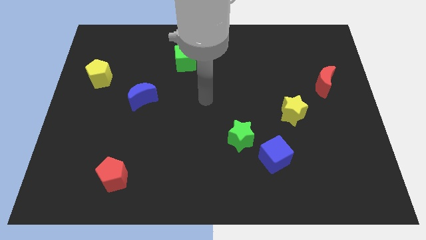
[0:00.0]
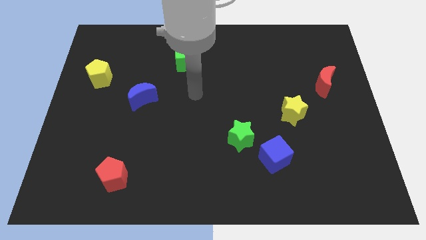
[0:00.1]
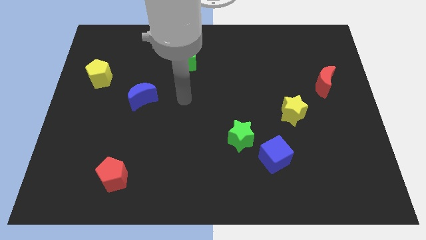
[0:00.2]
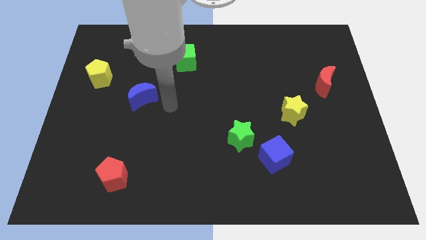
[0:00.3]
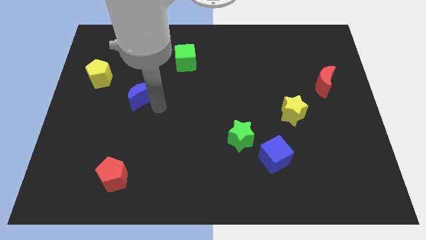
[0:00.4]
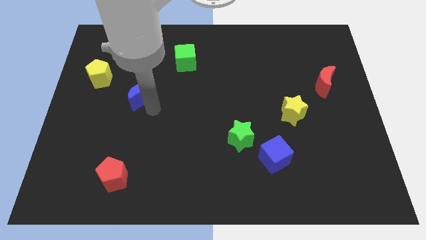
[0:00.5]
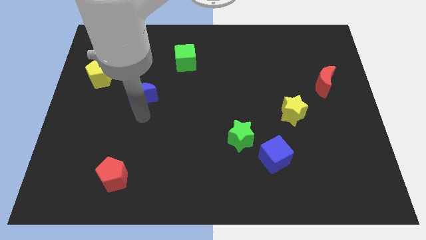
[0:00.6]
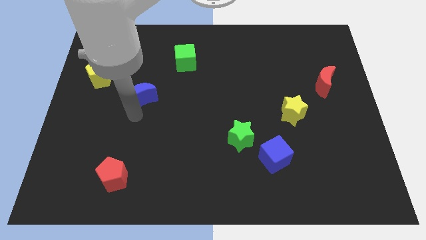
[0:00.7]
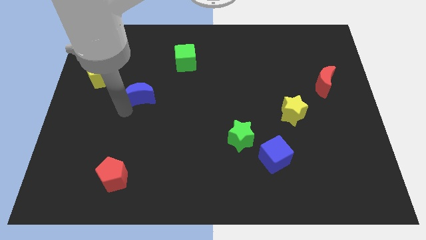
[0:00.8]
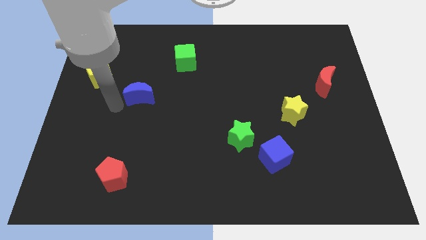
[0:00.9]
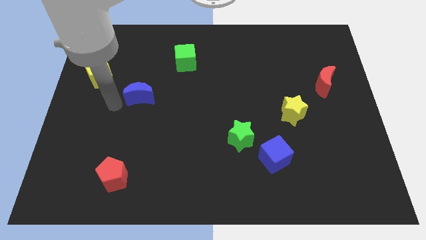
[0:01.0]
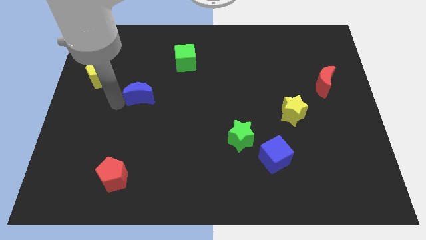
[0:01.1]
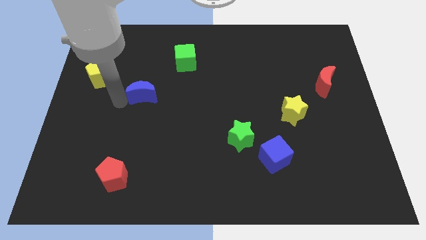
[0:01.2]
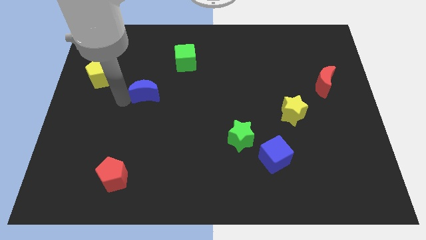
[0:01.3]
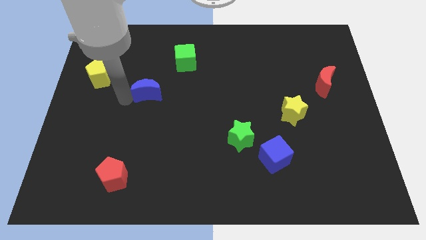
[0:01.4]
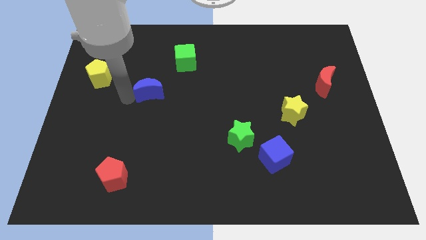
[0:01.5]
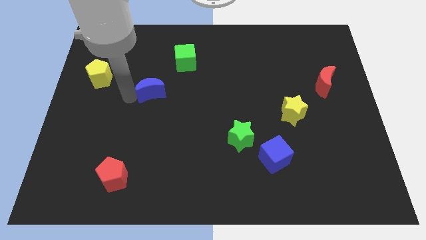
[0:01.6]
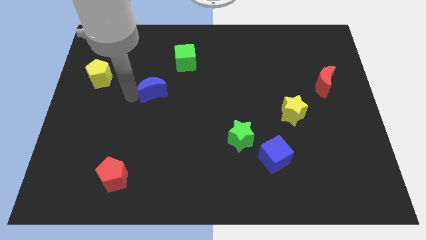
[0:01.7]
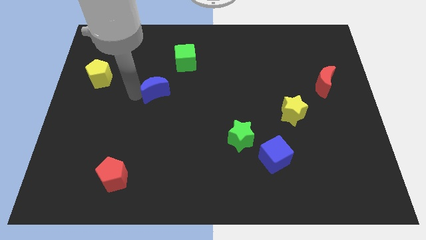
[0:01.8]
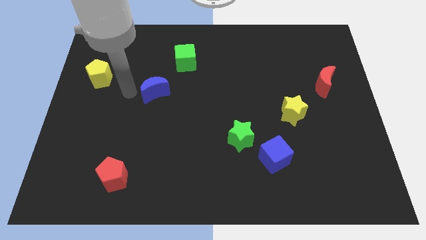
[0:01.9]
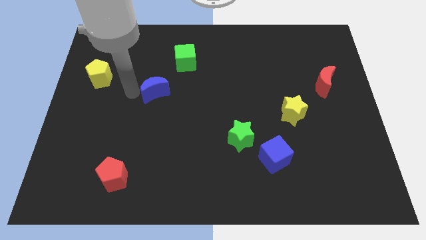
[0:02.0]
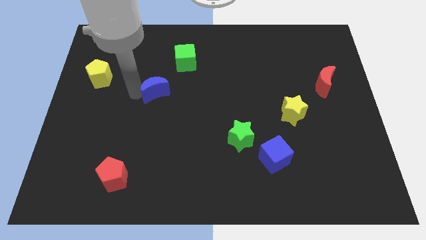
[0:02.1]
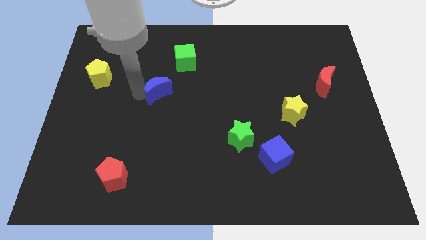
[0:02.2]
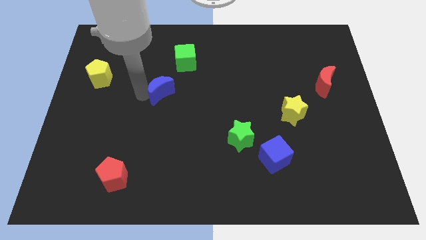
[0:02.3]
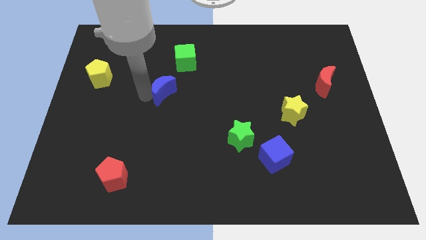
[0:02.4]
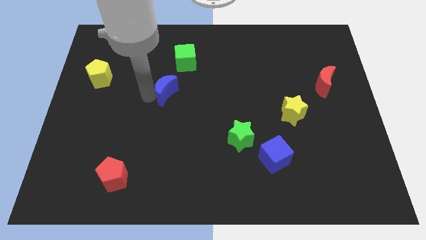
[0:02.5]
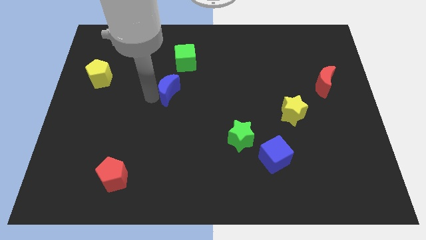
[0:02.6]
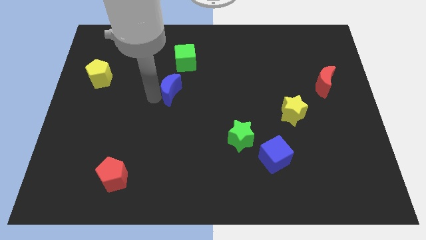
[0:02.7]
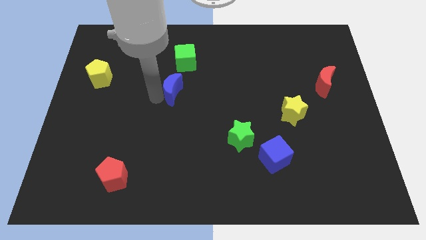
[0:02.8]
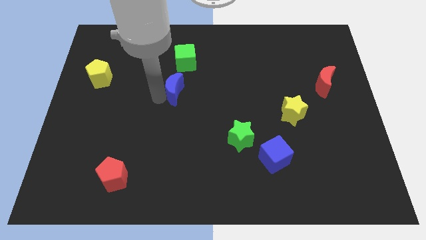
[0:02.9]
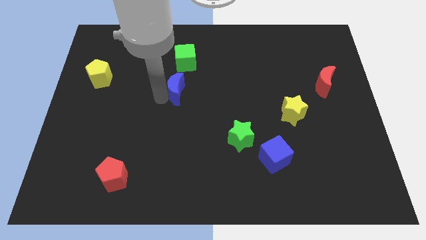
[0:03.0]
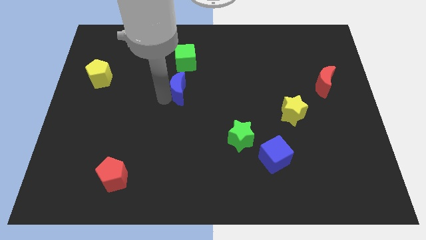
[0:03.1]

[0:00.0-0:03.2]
slightly slide the blue moon diagonally up and to the right

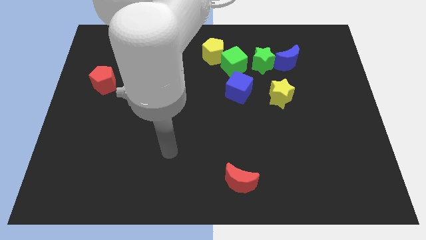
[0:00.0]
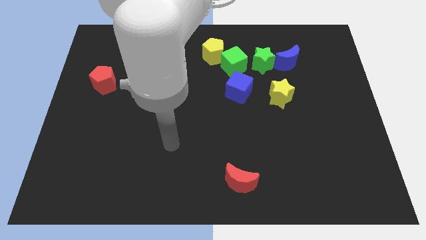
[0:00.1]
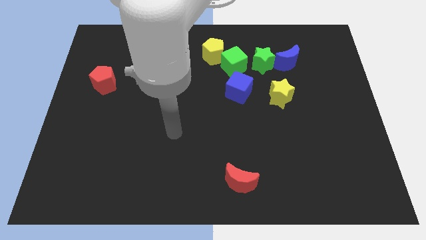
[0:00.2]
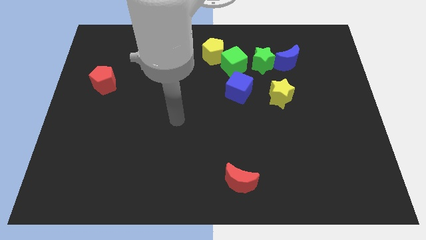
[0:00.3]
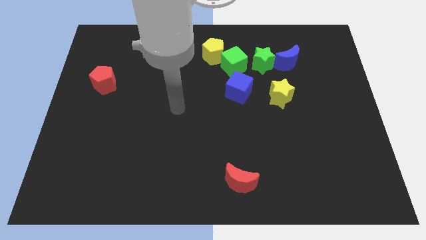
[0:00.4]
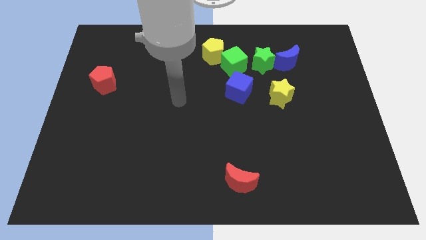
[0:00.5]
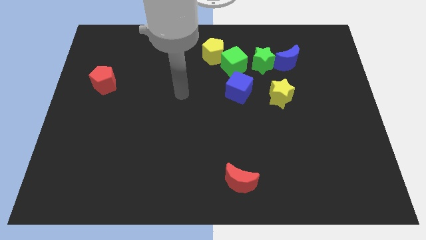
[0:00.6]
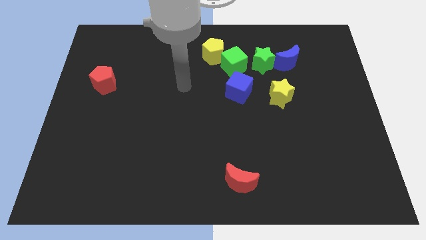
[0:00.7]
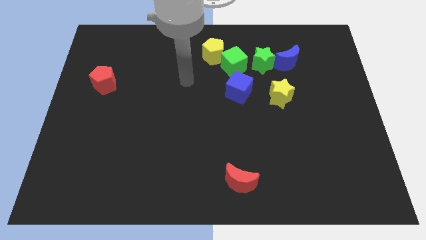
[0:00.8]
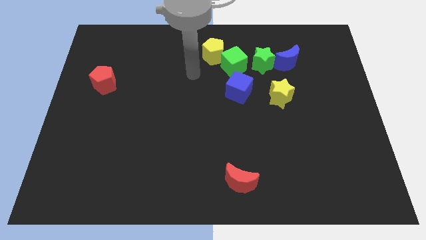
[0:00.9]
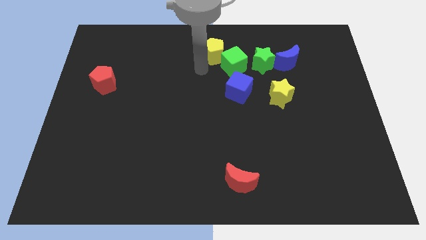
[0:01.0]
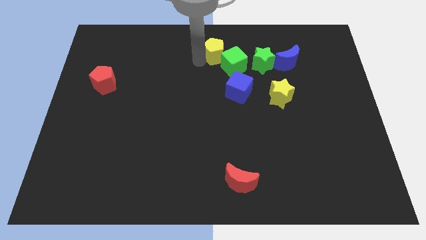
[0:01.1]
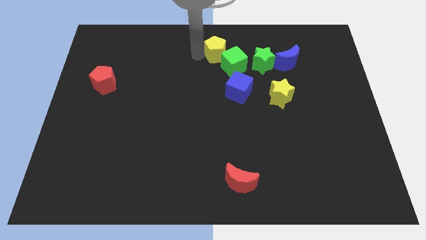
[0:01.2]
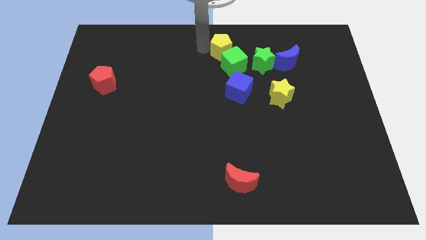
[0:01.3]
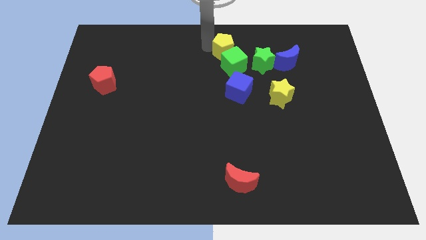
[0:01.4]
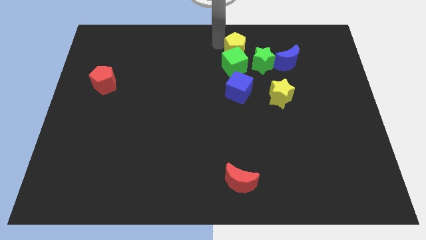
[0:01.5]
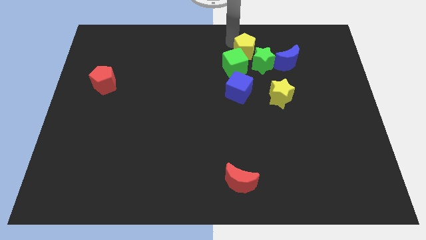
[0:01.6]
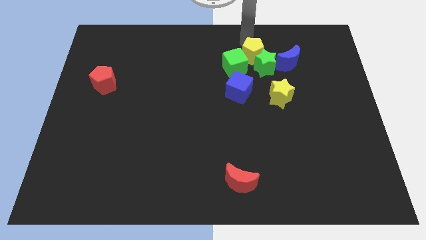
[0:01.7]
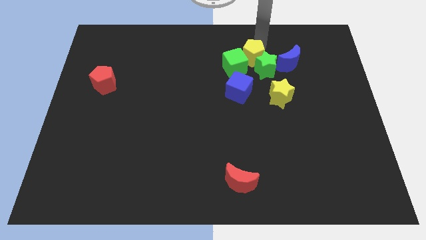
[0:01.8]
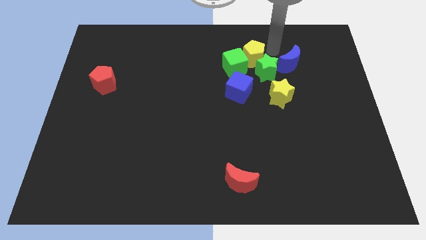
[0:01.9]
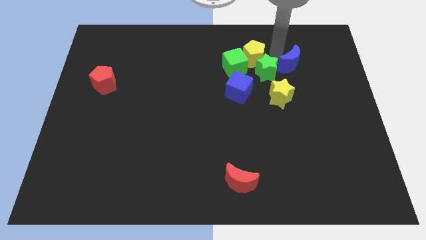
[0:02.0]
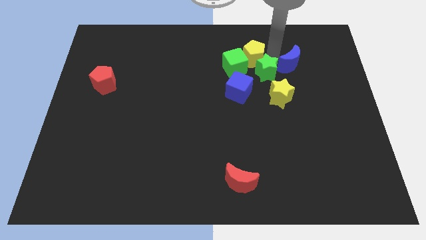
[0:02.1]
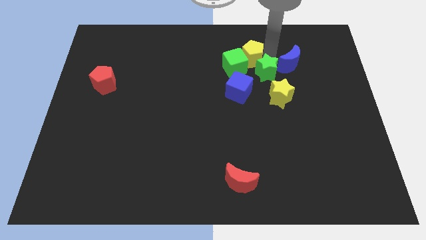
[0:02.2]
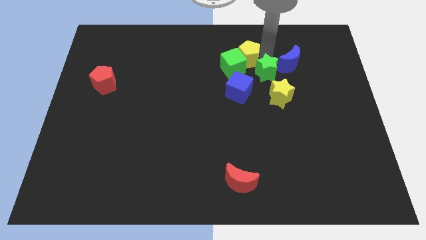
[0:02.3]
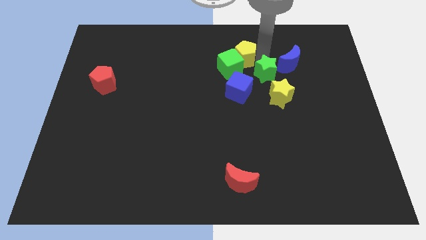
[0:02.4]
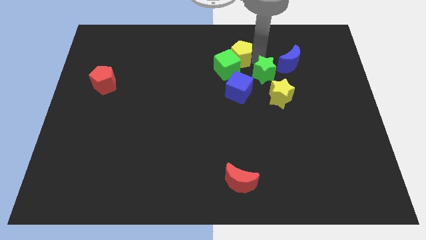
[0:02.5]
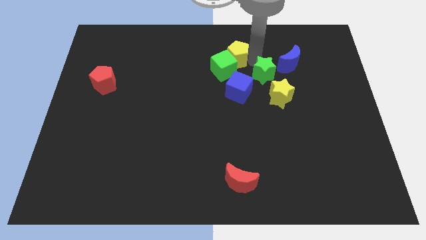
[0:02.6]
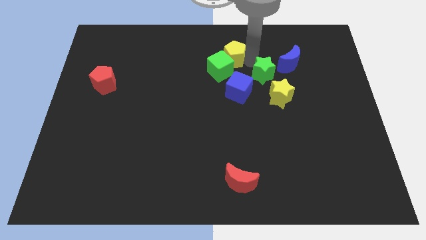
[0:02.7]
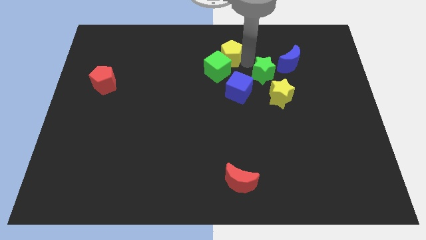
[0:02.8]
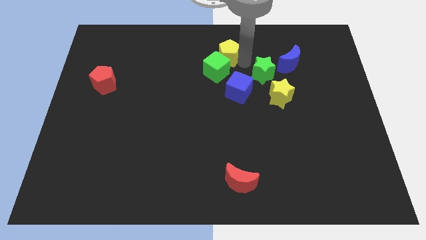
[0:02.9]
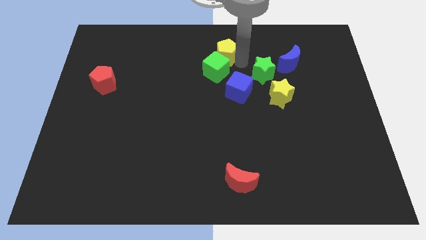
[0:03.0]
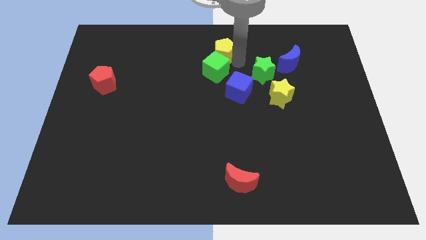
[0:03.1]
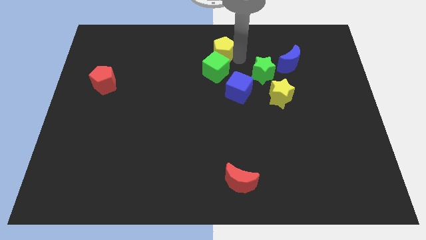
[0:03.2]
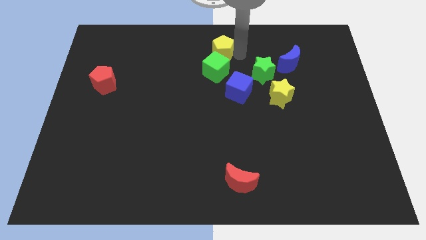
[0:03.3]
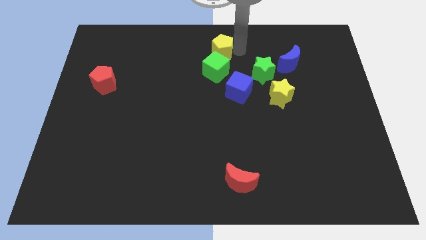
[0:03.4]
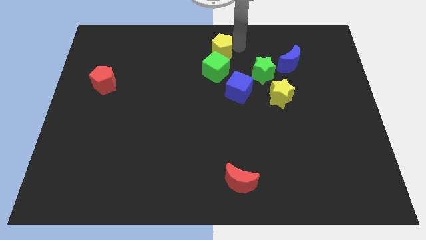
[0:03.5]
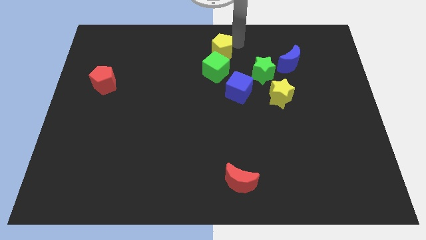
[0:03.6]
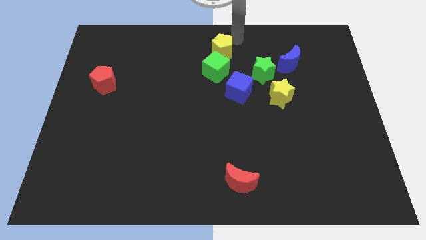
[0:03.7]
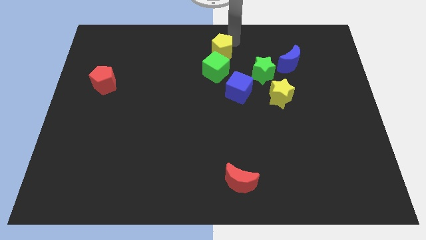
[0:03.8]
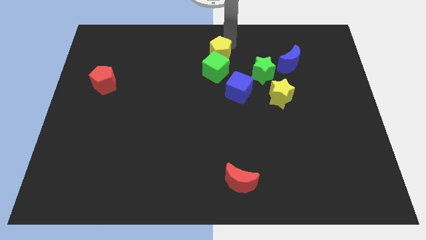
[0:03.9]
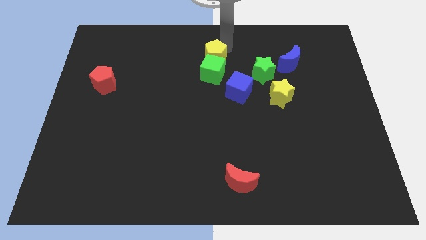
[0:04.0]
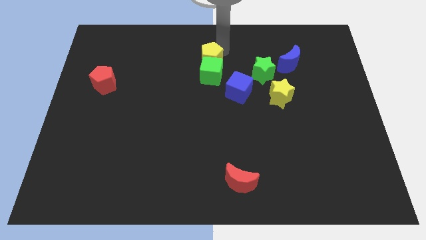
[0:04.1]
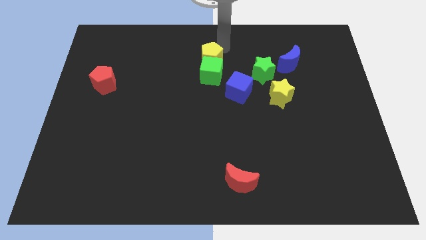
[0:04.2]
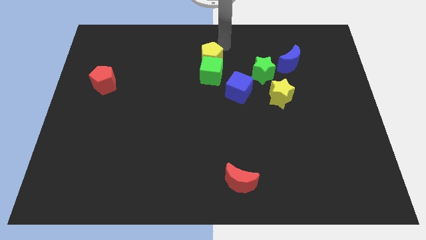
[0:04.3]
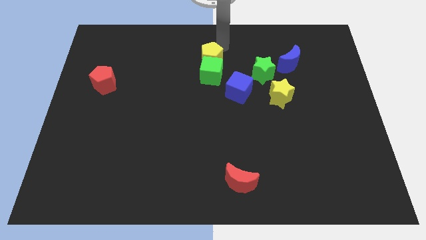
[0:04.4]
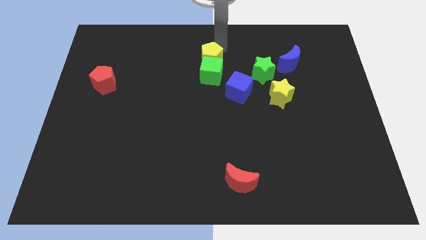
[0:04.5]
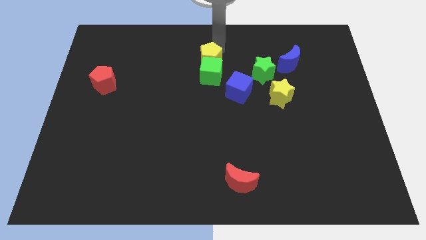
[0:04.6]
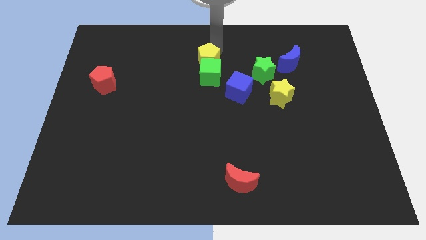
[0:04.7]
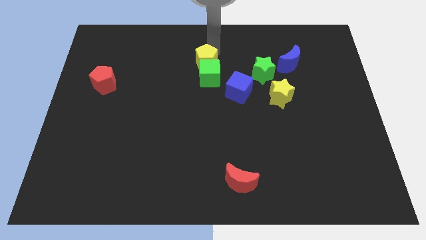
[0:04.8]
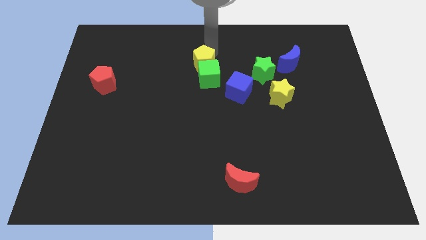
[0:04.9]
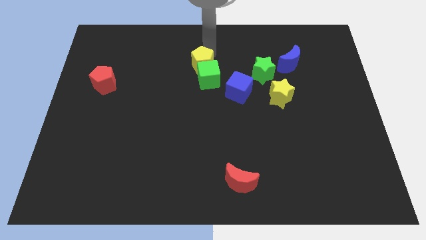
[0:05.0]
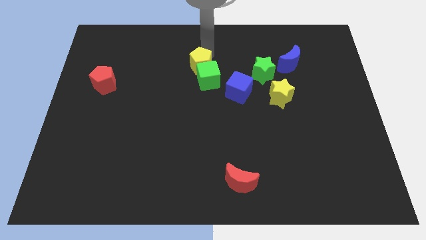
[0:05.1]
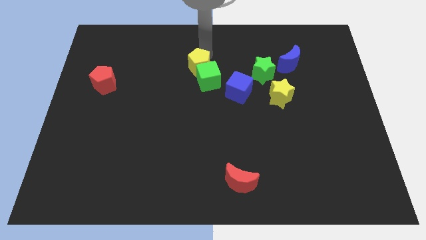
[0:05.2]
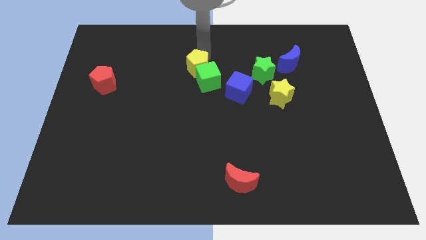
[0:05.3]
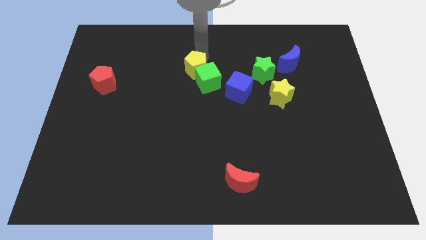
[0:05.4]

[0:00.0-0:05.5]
slightly move the yellow pentagon down and to the left
